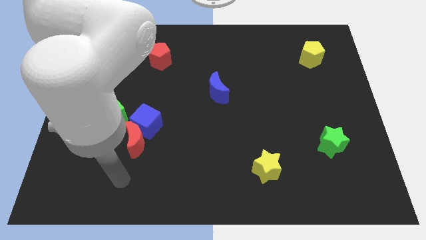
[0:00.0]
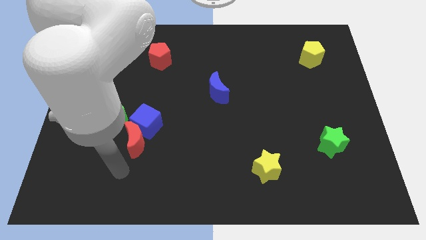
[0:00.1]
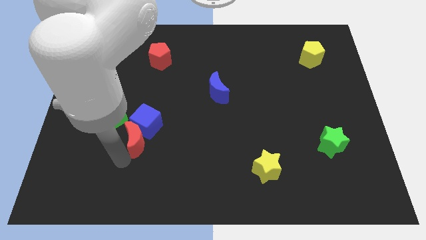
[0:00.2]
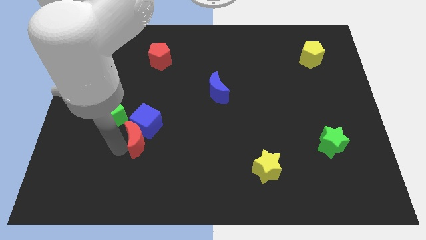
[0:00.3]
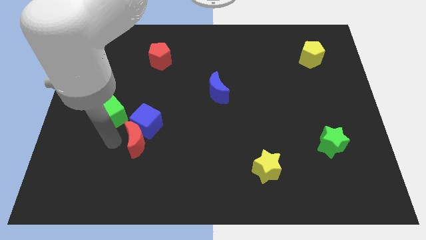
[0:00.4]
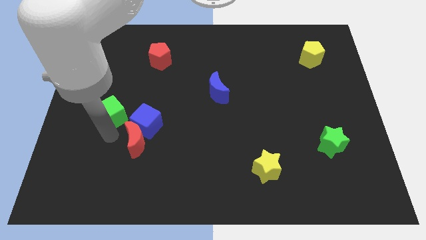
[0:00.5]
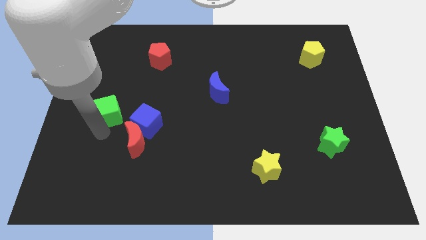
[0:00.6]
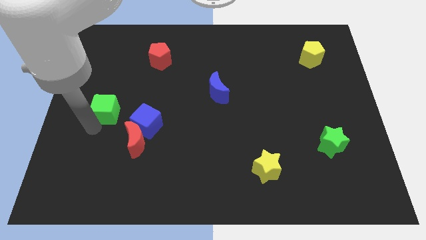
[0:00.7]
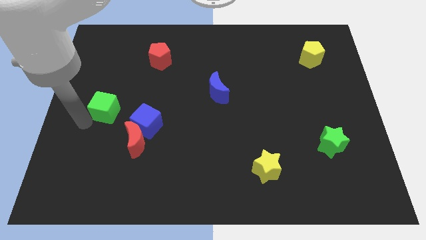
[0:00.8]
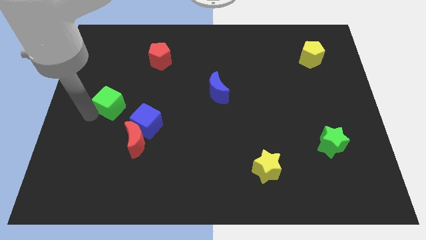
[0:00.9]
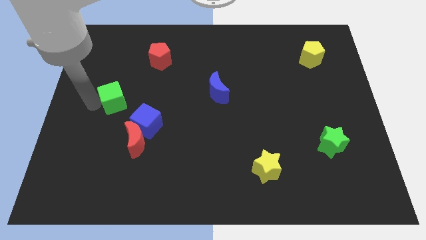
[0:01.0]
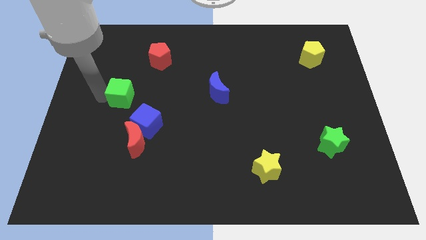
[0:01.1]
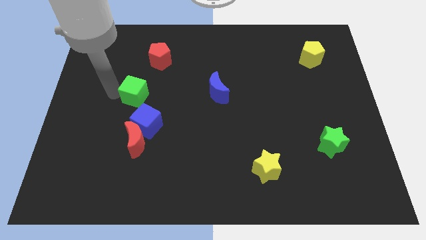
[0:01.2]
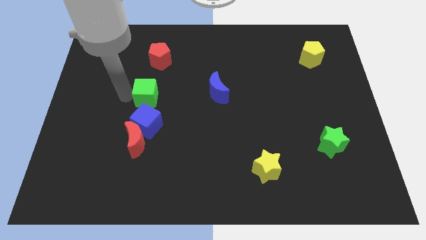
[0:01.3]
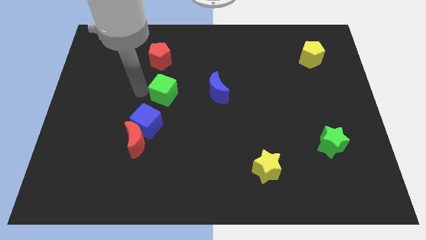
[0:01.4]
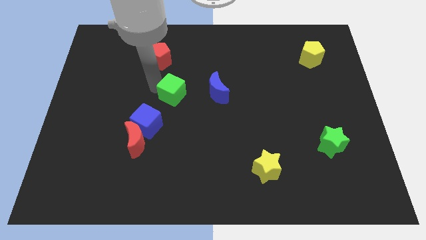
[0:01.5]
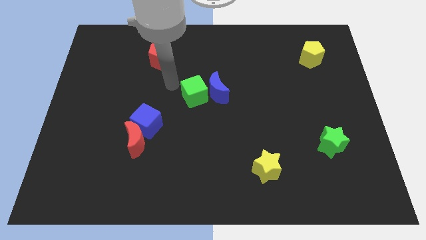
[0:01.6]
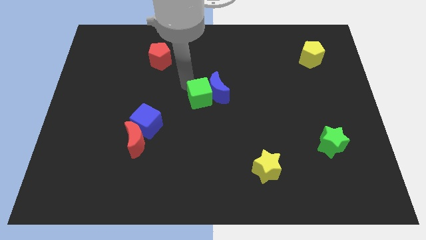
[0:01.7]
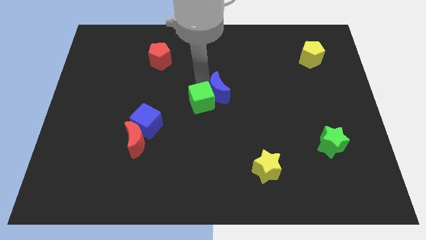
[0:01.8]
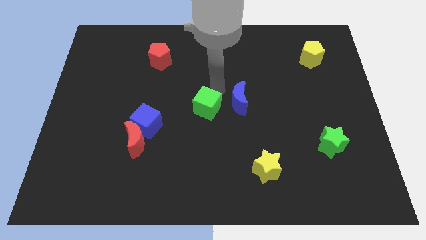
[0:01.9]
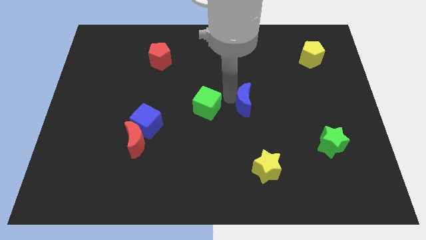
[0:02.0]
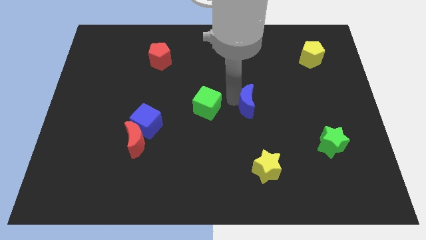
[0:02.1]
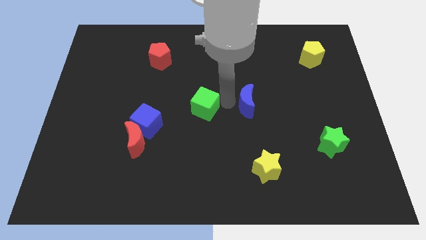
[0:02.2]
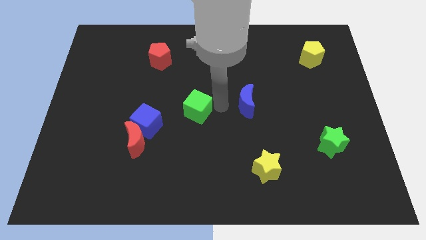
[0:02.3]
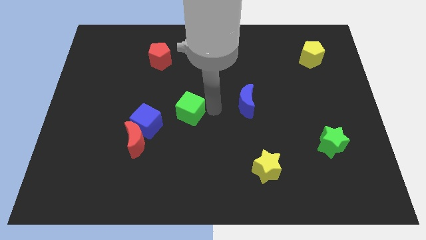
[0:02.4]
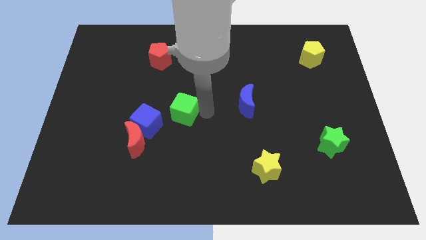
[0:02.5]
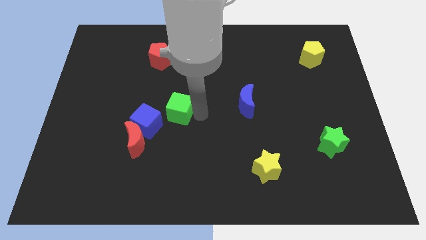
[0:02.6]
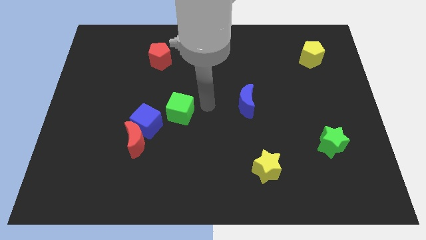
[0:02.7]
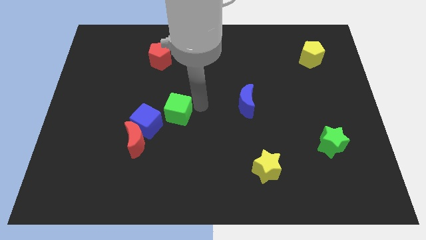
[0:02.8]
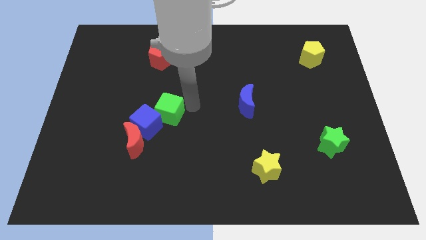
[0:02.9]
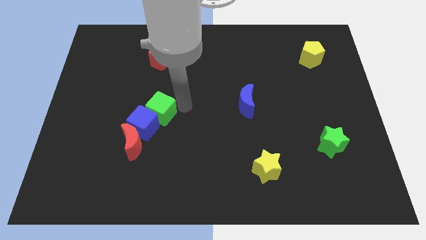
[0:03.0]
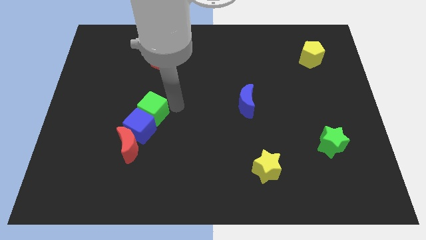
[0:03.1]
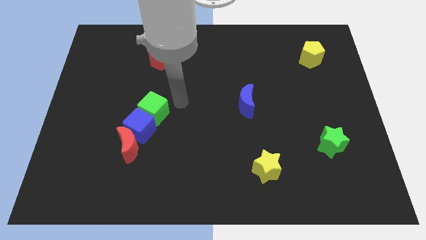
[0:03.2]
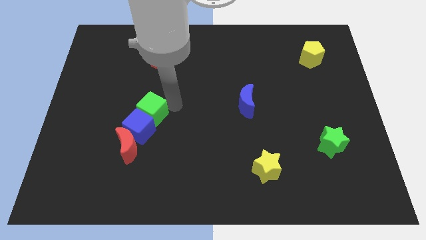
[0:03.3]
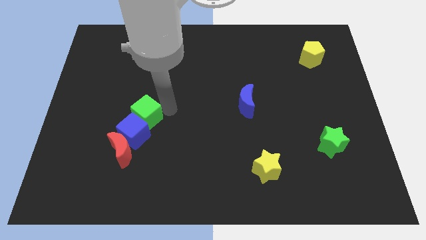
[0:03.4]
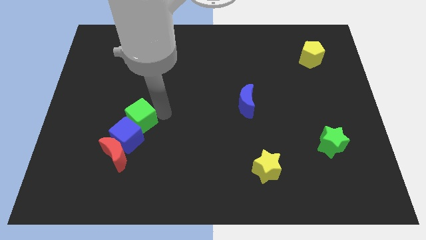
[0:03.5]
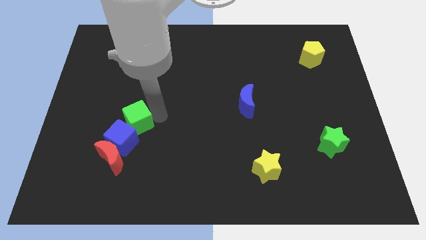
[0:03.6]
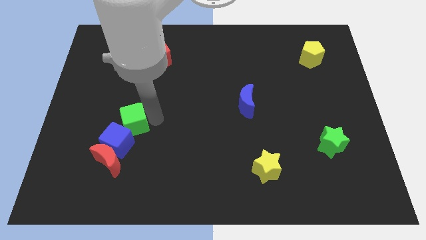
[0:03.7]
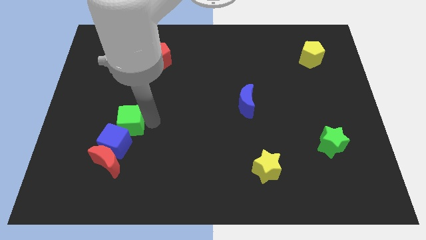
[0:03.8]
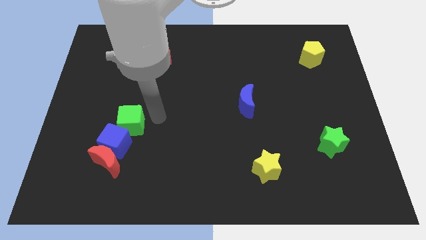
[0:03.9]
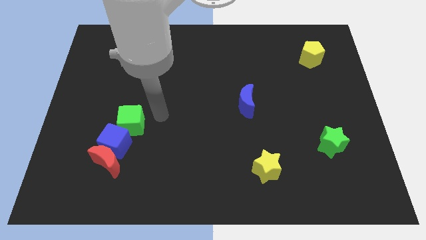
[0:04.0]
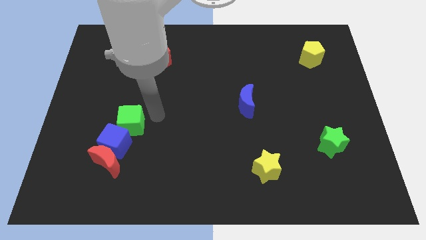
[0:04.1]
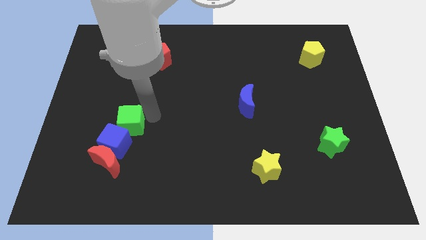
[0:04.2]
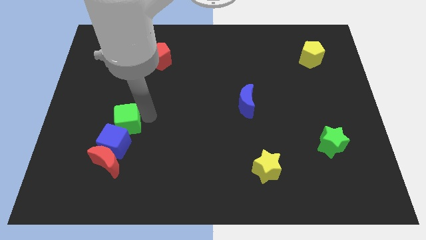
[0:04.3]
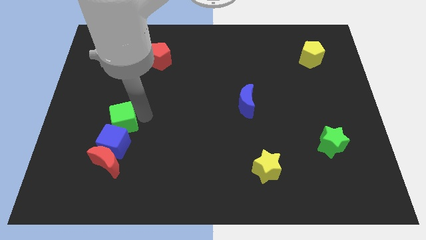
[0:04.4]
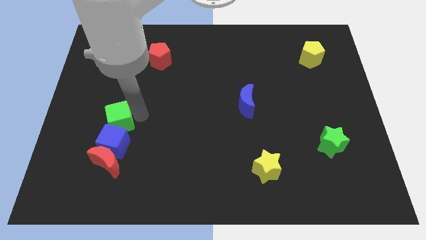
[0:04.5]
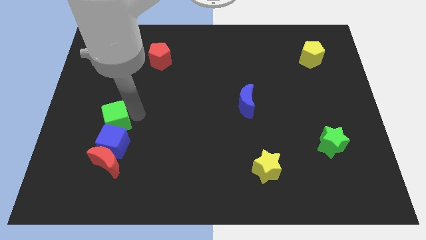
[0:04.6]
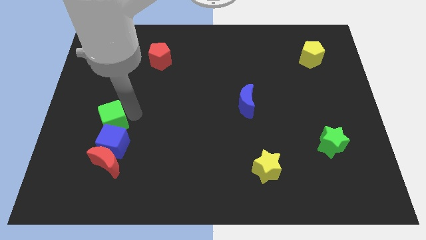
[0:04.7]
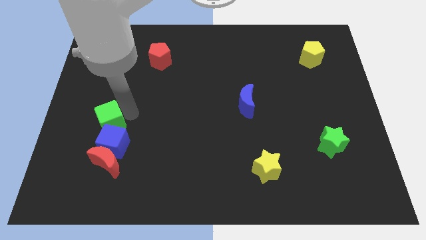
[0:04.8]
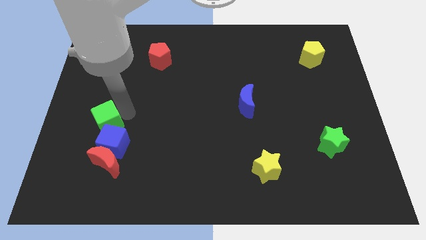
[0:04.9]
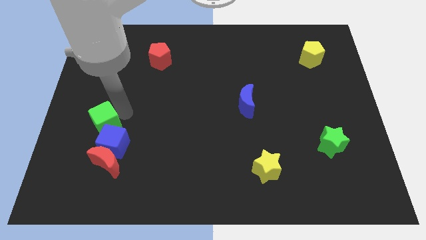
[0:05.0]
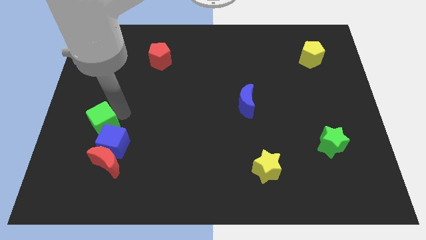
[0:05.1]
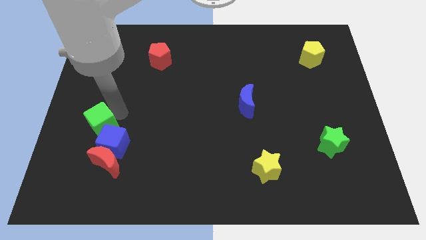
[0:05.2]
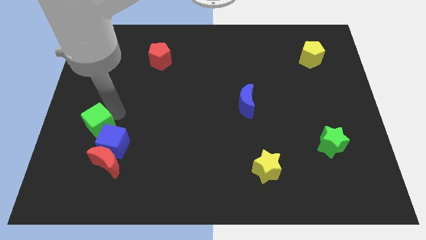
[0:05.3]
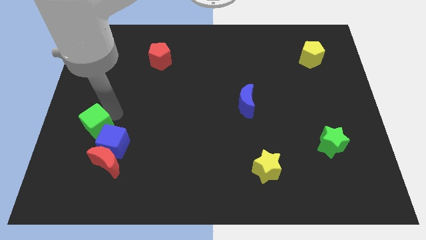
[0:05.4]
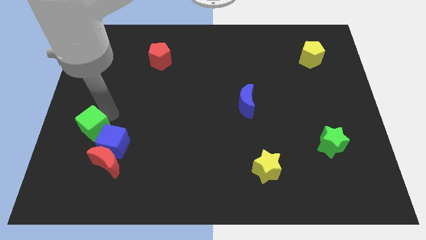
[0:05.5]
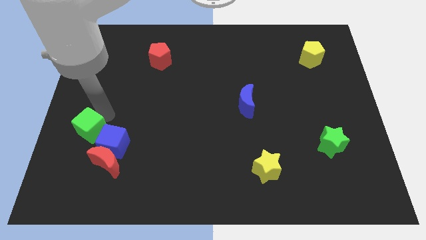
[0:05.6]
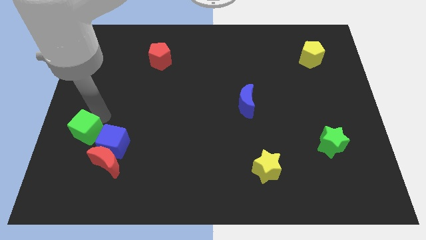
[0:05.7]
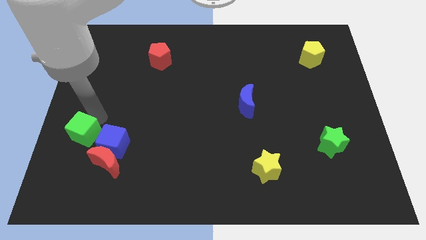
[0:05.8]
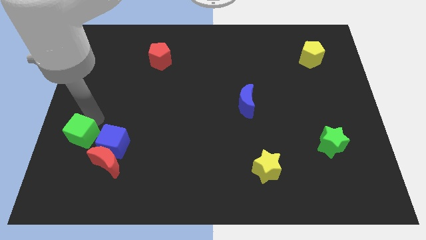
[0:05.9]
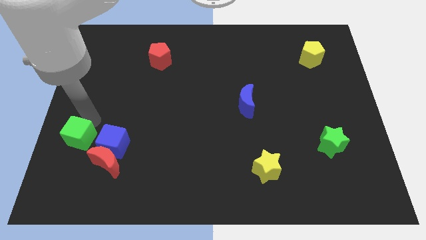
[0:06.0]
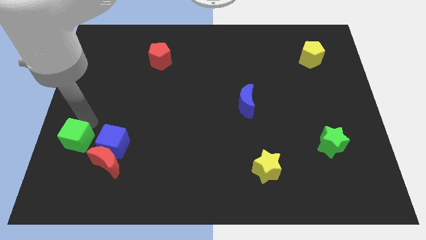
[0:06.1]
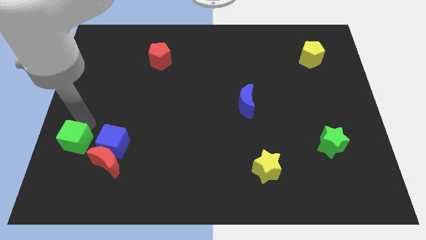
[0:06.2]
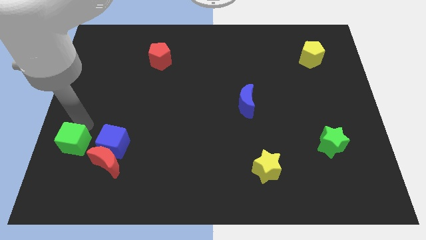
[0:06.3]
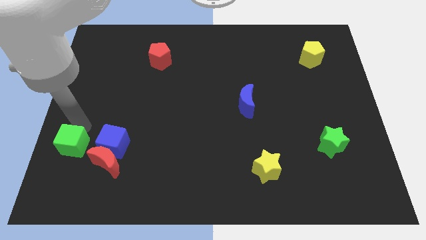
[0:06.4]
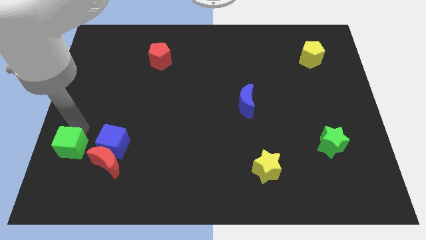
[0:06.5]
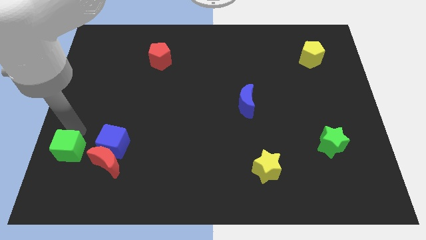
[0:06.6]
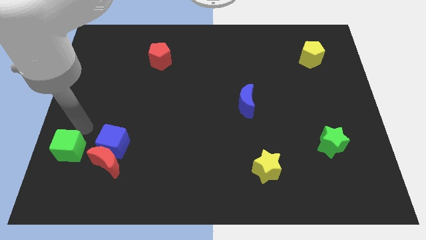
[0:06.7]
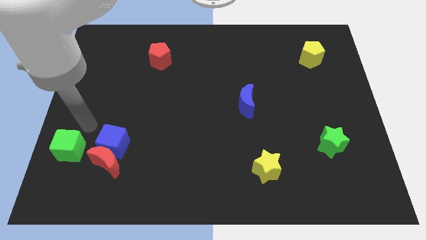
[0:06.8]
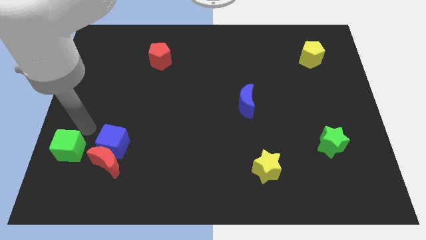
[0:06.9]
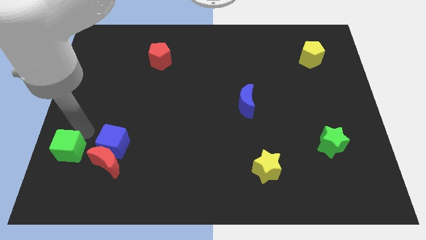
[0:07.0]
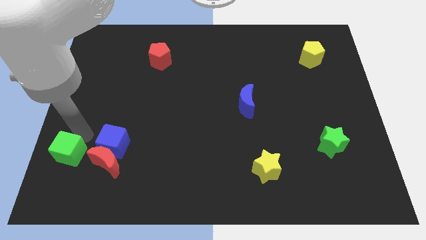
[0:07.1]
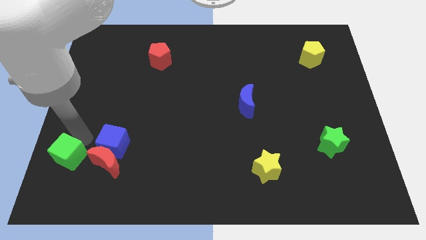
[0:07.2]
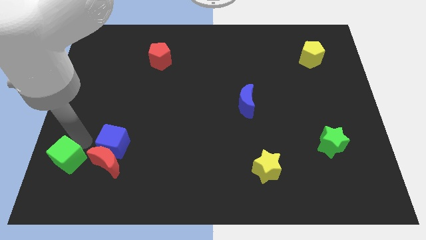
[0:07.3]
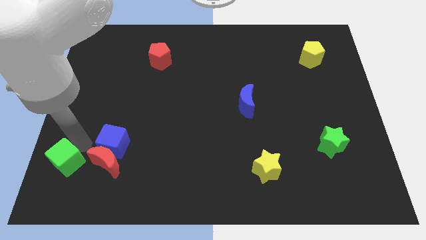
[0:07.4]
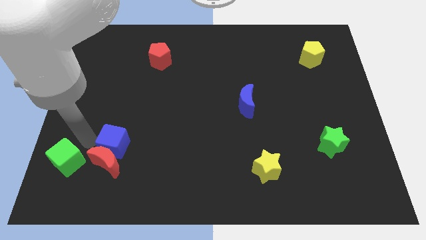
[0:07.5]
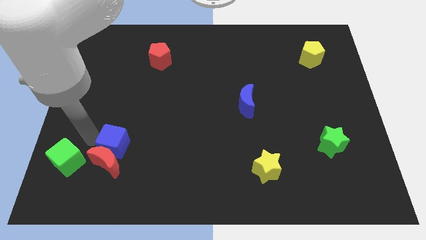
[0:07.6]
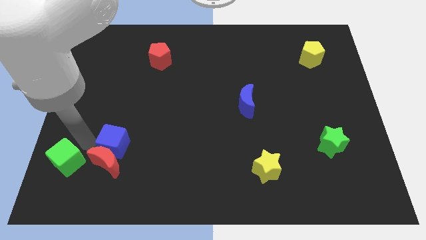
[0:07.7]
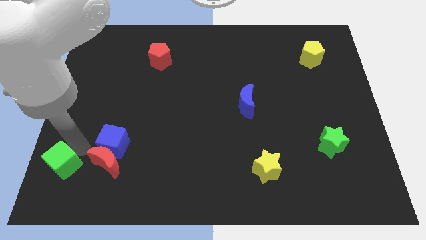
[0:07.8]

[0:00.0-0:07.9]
put the green cube to the bottom left corner
